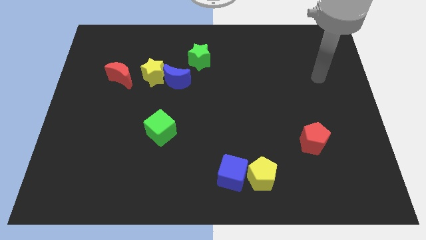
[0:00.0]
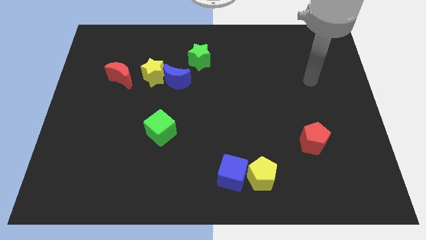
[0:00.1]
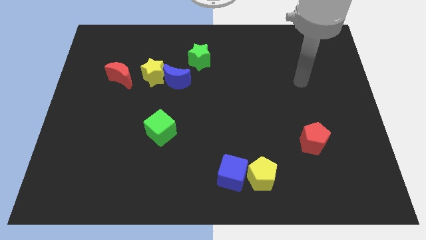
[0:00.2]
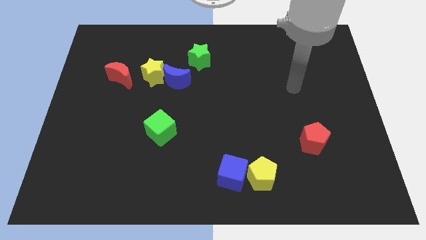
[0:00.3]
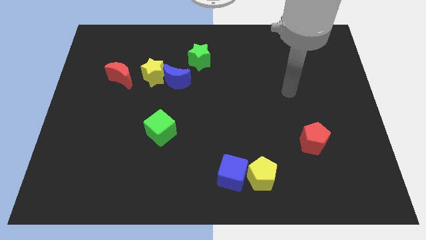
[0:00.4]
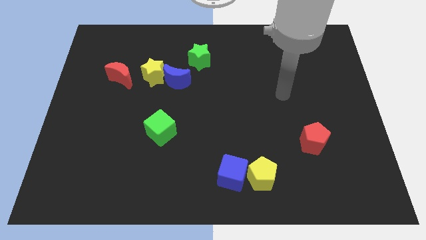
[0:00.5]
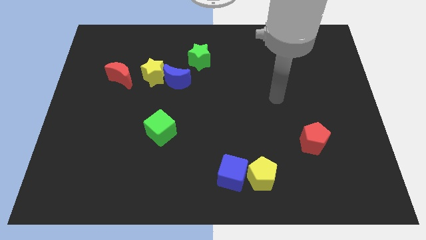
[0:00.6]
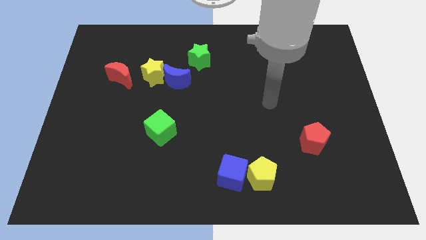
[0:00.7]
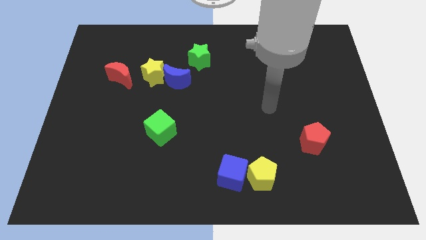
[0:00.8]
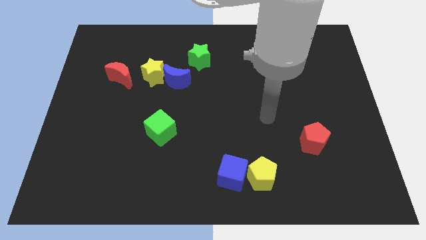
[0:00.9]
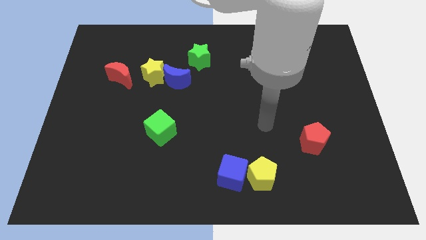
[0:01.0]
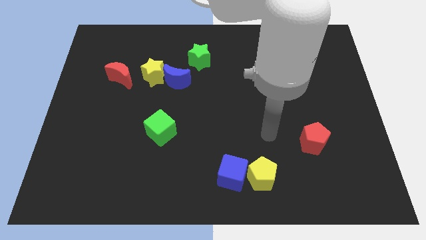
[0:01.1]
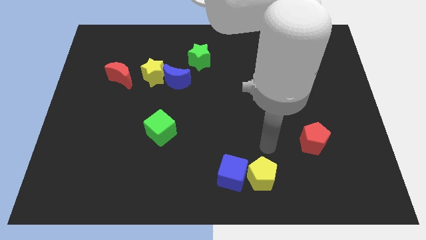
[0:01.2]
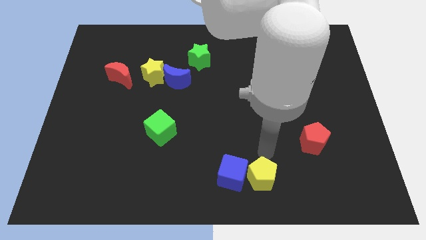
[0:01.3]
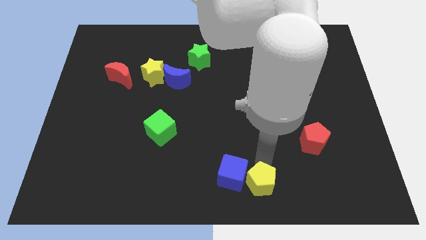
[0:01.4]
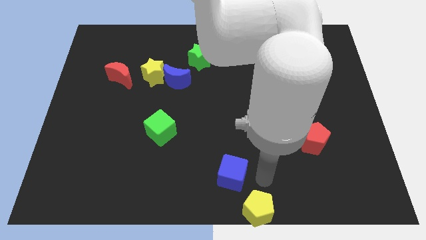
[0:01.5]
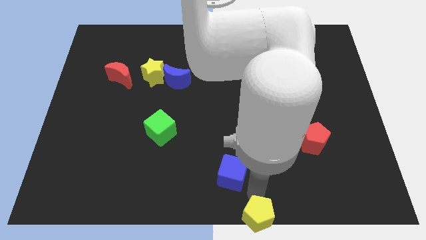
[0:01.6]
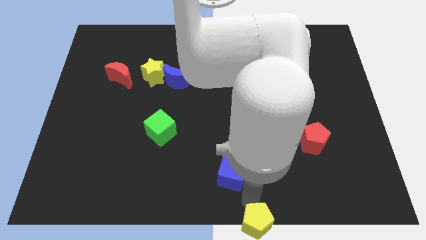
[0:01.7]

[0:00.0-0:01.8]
move the blue cube away from the yellow pentagon

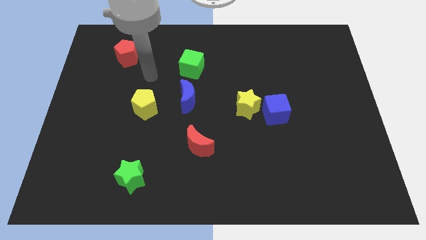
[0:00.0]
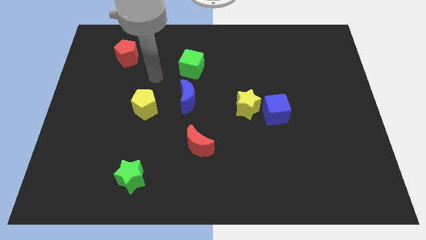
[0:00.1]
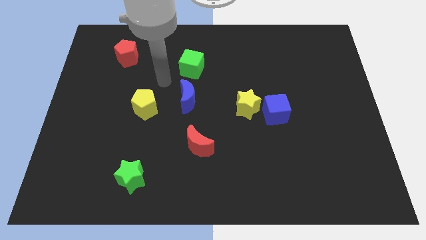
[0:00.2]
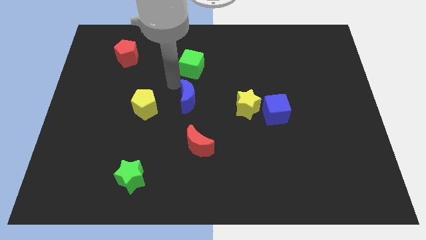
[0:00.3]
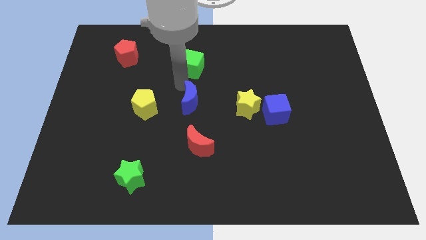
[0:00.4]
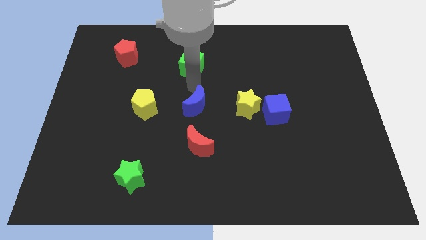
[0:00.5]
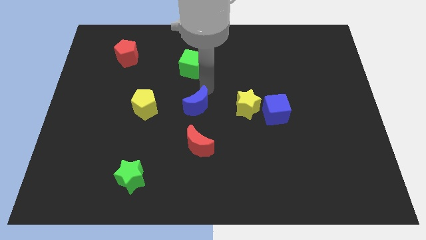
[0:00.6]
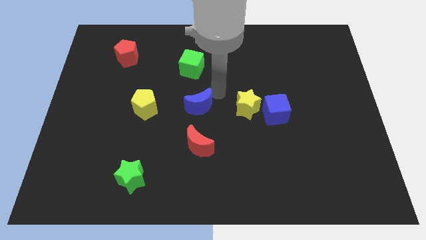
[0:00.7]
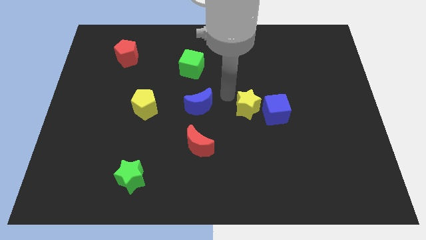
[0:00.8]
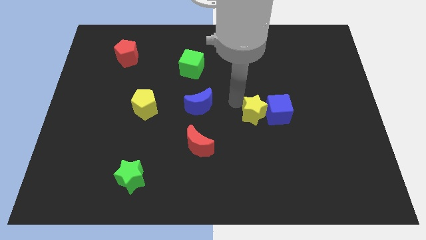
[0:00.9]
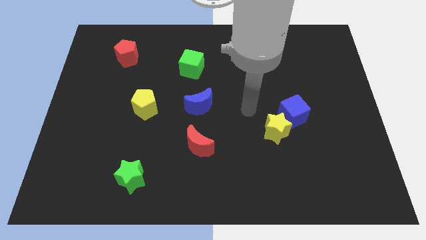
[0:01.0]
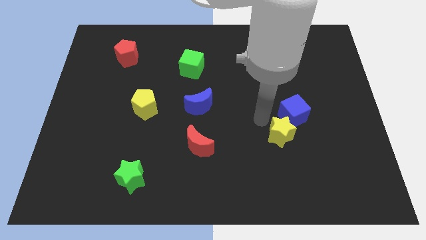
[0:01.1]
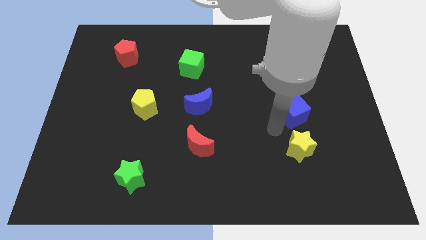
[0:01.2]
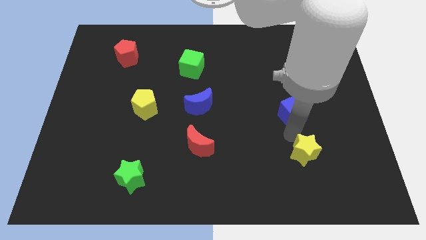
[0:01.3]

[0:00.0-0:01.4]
separate the blue cube from the yellow star

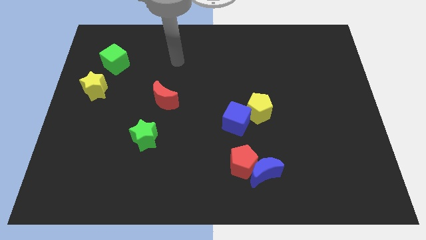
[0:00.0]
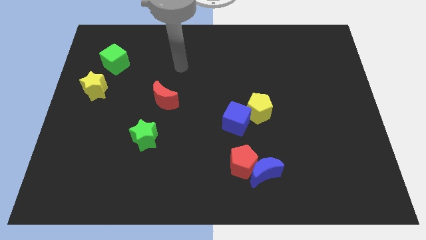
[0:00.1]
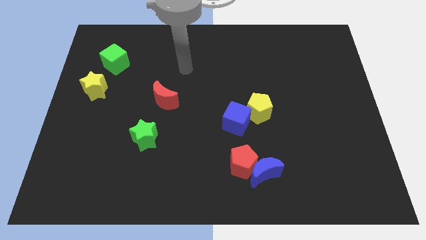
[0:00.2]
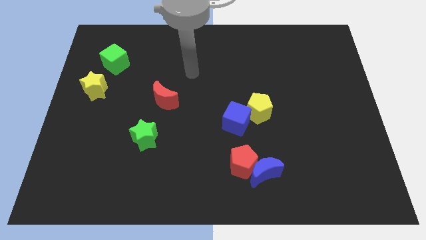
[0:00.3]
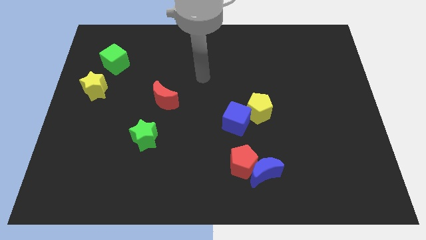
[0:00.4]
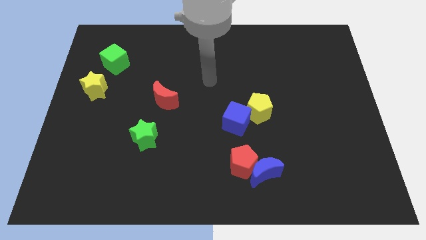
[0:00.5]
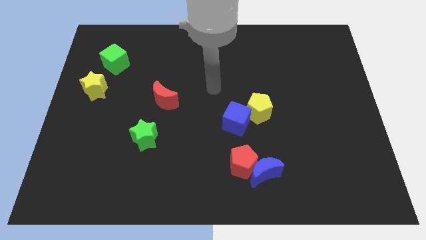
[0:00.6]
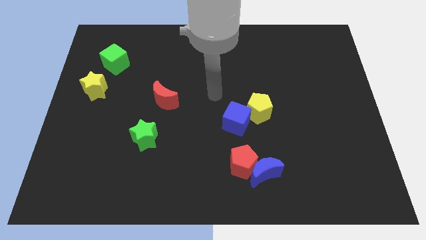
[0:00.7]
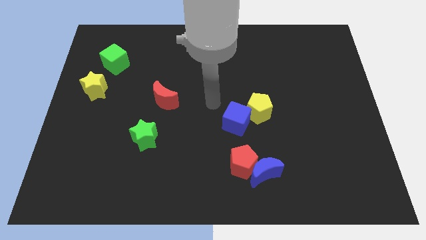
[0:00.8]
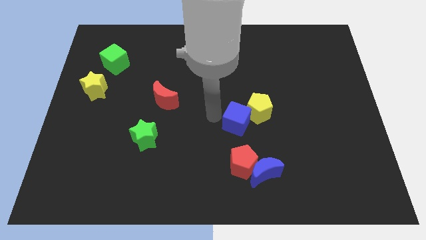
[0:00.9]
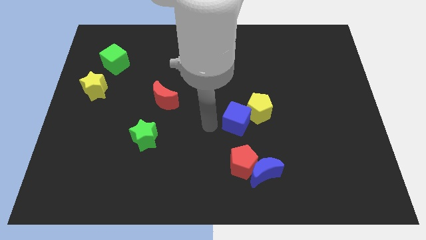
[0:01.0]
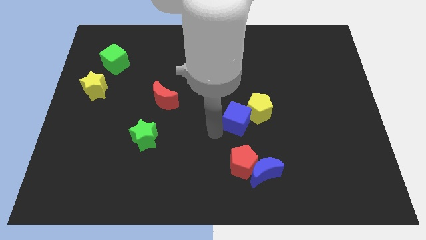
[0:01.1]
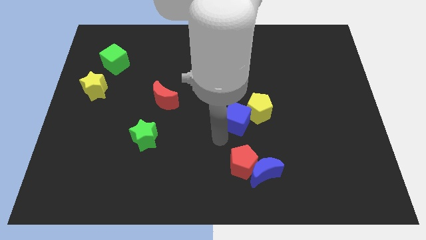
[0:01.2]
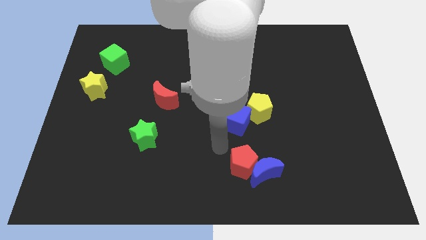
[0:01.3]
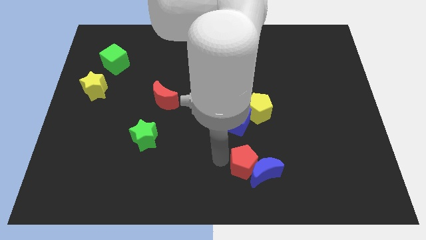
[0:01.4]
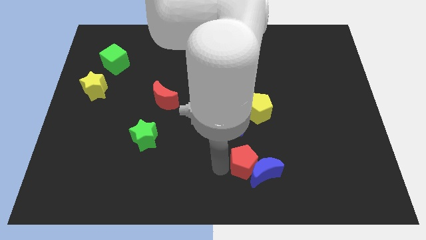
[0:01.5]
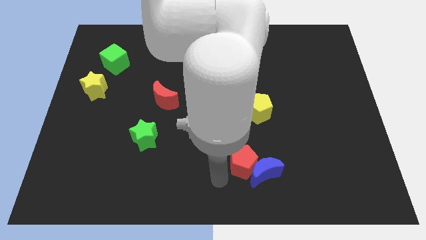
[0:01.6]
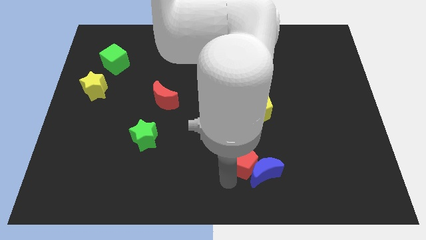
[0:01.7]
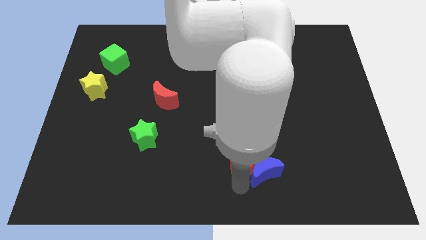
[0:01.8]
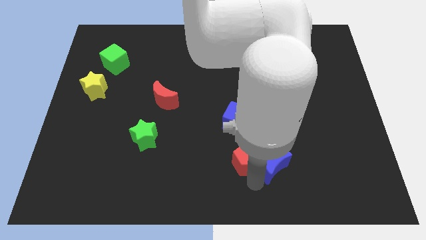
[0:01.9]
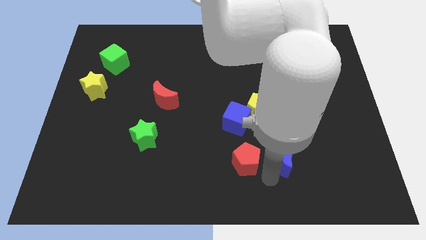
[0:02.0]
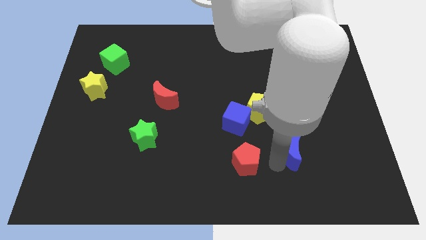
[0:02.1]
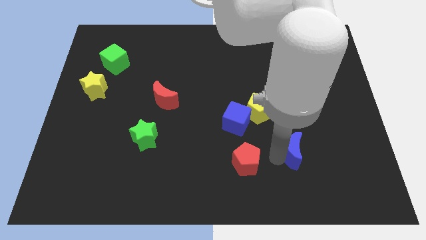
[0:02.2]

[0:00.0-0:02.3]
move the red pentagon away from the blue moon

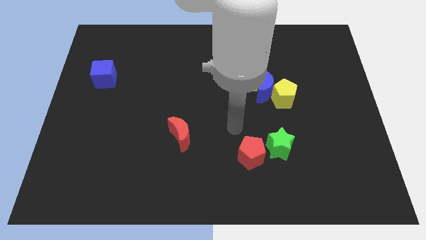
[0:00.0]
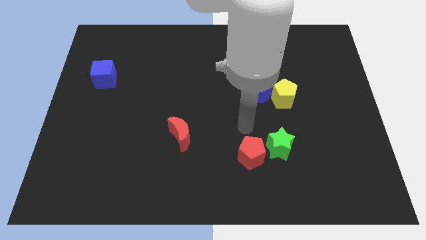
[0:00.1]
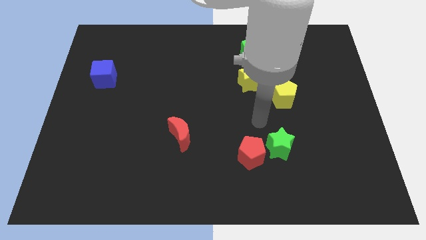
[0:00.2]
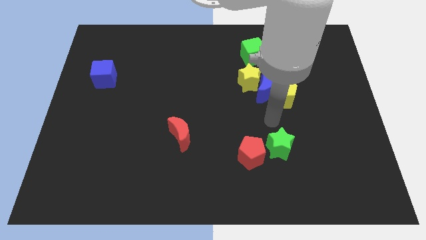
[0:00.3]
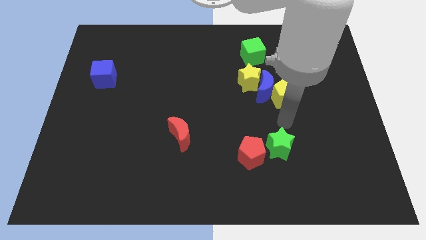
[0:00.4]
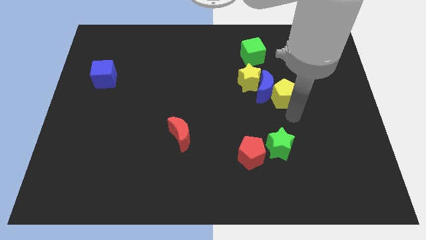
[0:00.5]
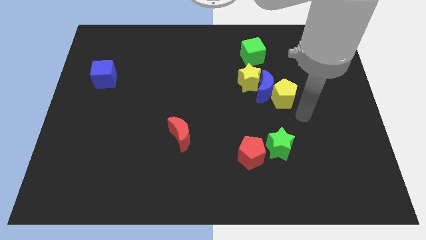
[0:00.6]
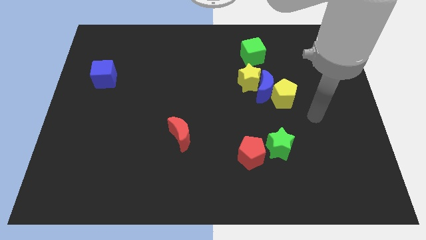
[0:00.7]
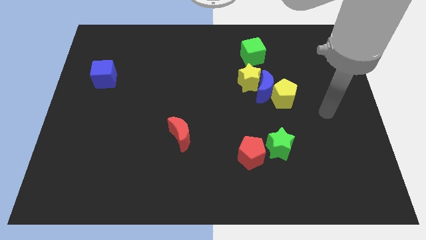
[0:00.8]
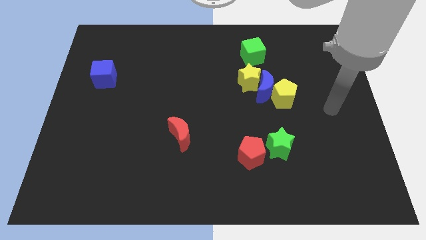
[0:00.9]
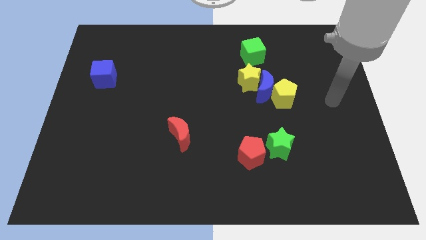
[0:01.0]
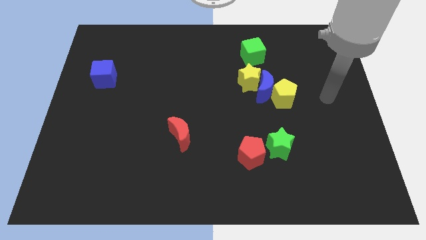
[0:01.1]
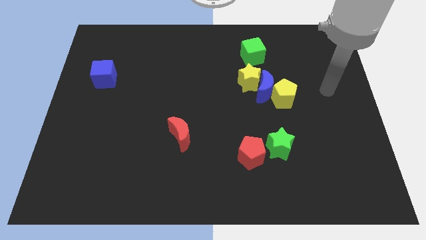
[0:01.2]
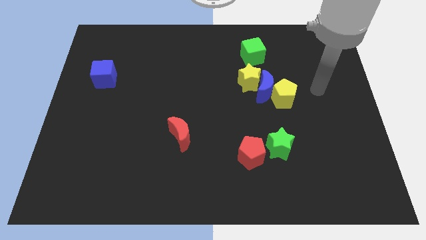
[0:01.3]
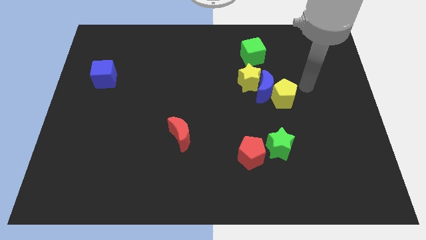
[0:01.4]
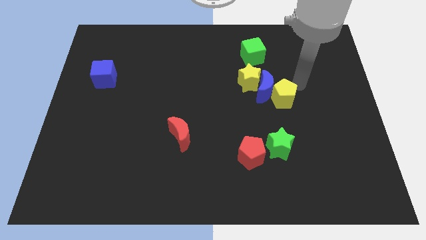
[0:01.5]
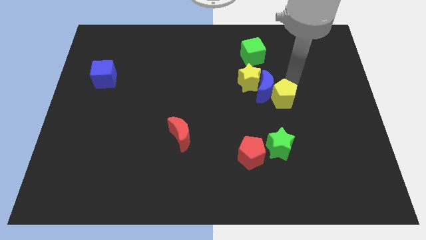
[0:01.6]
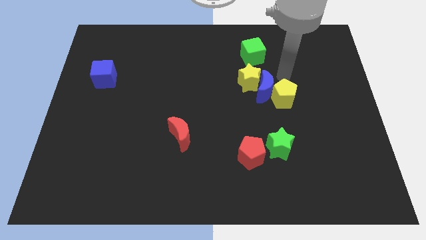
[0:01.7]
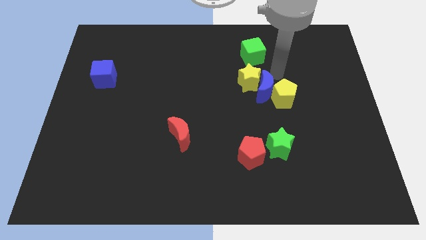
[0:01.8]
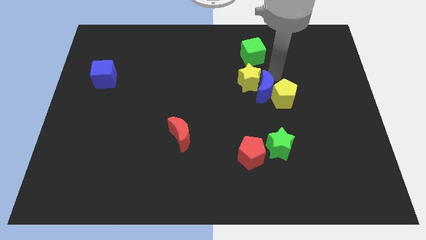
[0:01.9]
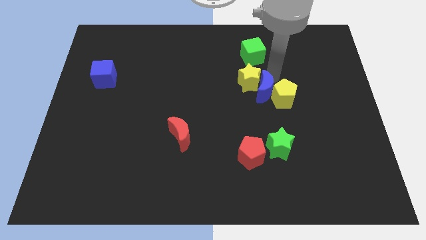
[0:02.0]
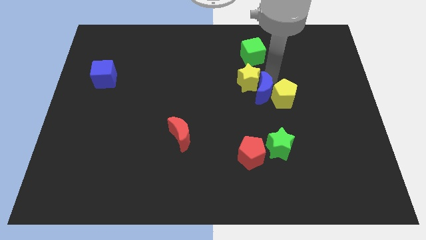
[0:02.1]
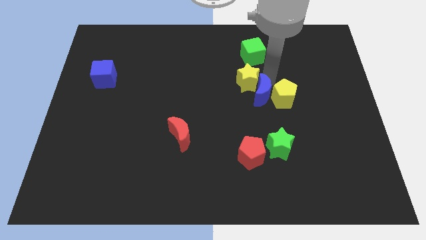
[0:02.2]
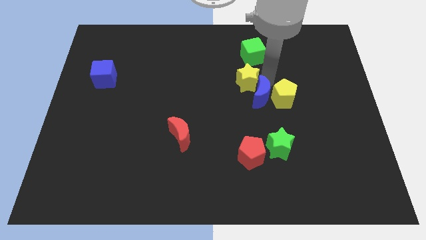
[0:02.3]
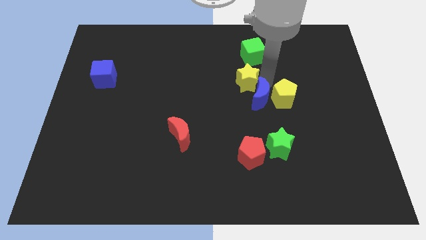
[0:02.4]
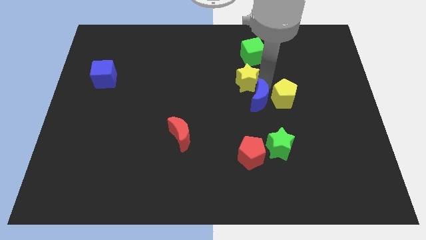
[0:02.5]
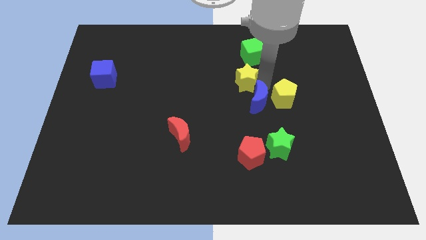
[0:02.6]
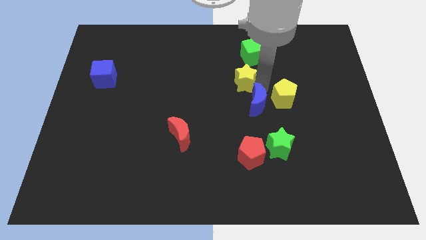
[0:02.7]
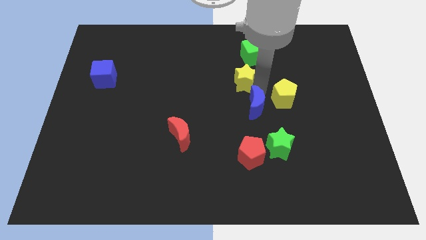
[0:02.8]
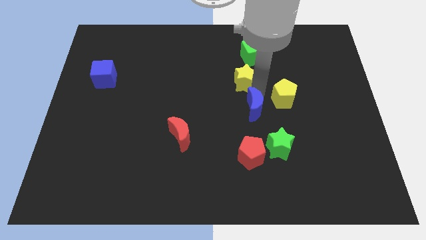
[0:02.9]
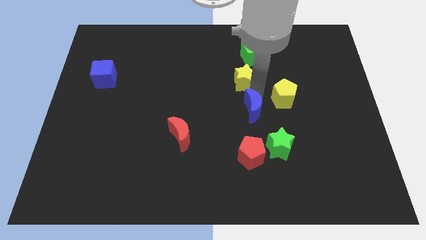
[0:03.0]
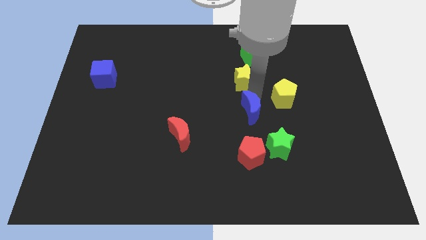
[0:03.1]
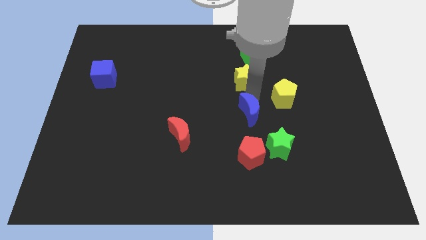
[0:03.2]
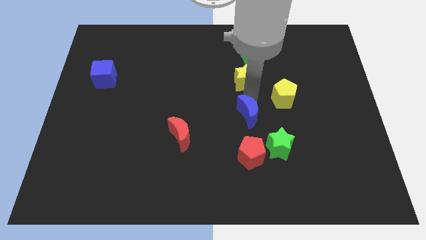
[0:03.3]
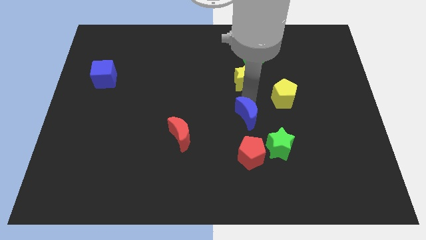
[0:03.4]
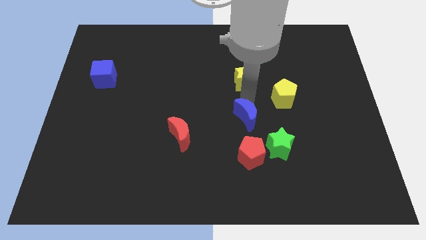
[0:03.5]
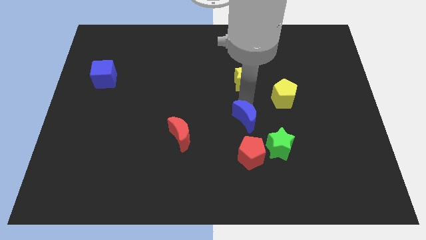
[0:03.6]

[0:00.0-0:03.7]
move the blue moon away from the yellow pentagon and yellow star

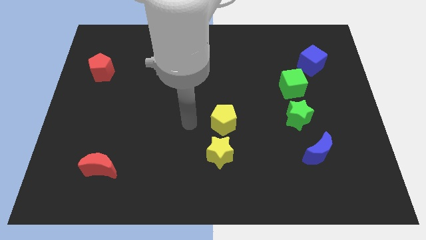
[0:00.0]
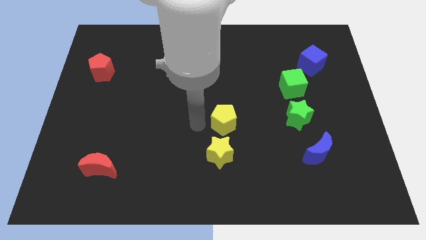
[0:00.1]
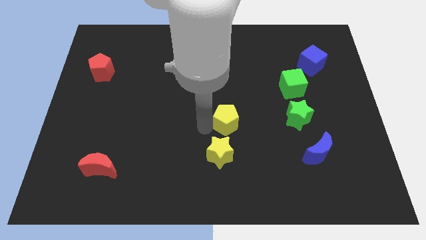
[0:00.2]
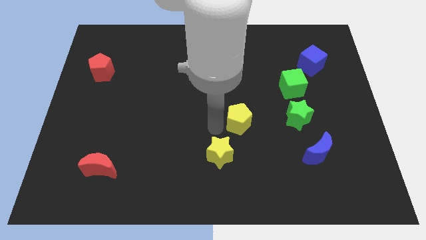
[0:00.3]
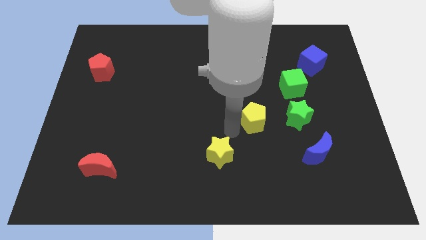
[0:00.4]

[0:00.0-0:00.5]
pull the yellow star apart from the yellow pentagon
